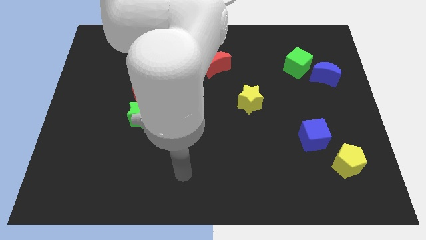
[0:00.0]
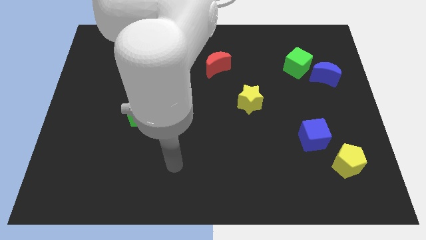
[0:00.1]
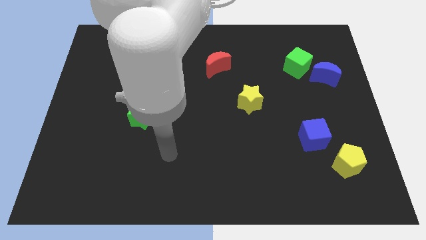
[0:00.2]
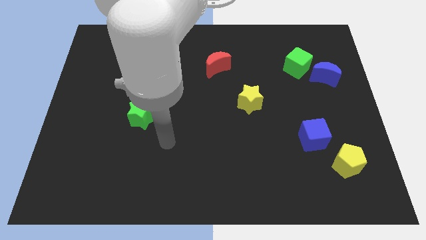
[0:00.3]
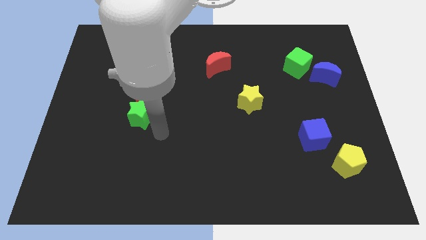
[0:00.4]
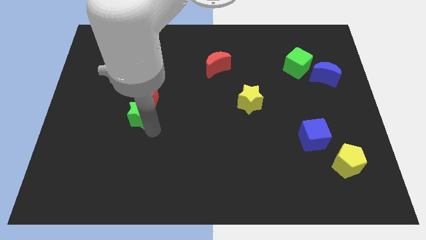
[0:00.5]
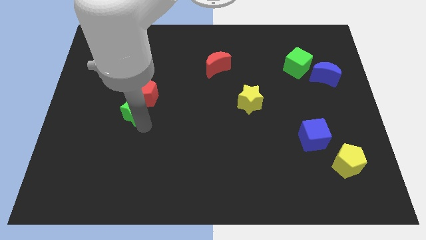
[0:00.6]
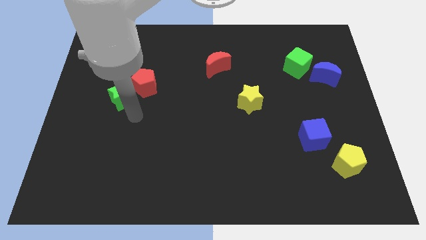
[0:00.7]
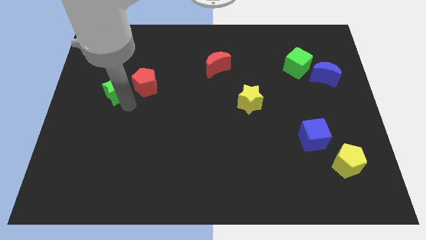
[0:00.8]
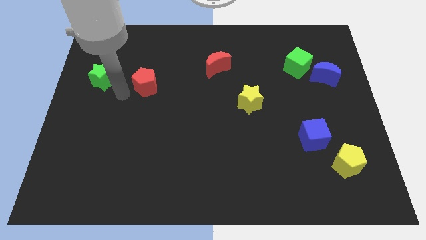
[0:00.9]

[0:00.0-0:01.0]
move the red pentagon away from the green star

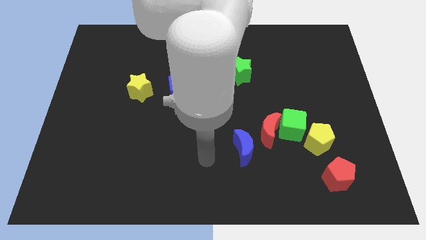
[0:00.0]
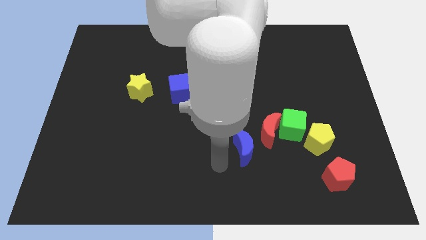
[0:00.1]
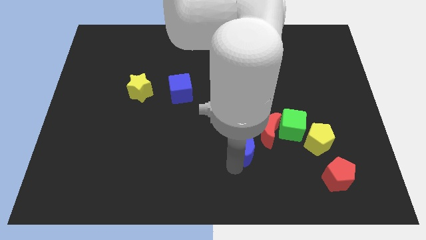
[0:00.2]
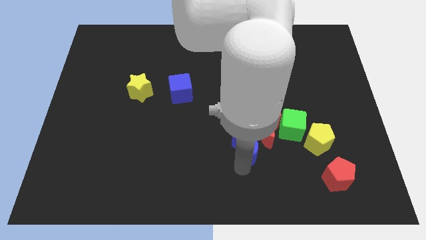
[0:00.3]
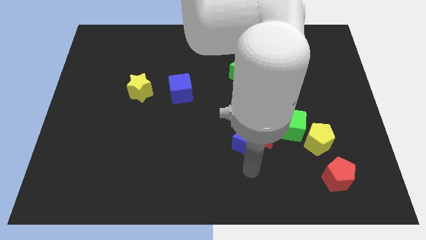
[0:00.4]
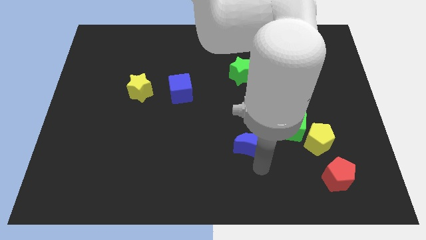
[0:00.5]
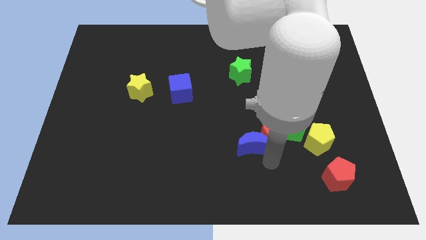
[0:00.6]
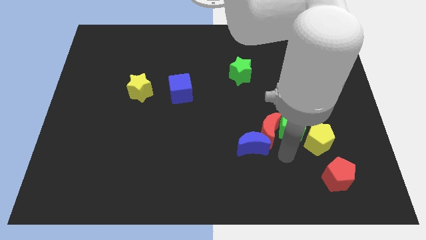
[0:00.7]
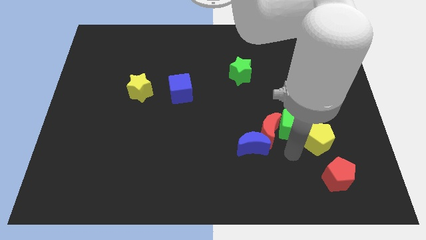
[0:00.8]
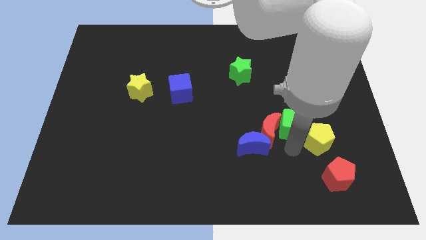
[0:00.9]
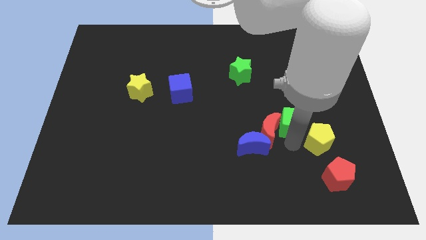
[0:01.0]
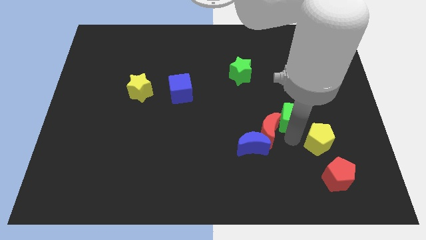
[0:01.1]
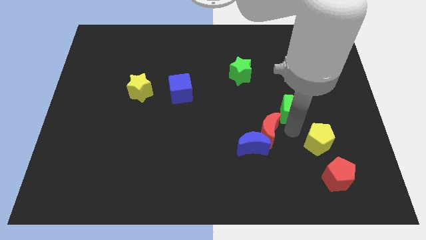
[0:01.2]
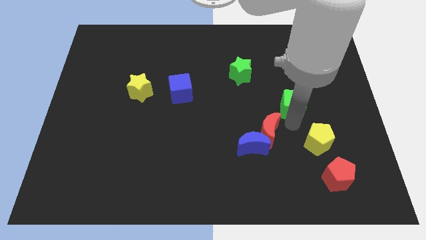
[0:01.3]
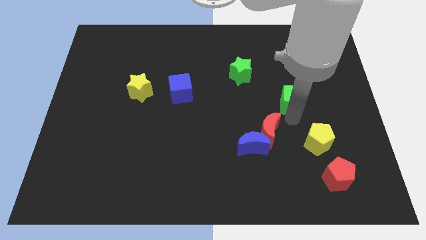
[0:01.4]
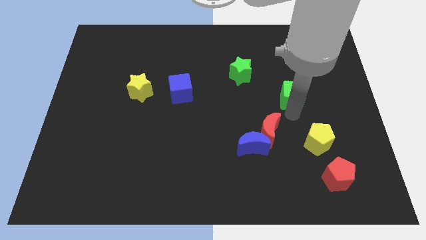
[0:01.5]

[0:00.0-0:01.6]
pull the green cube apart from the red moon and yellow pentagon

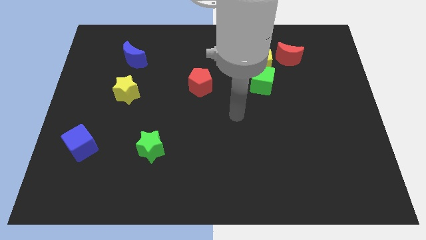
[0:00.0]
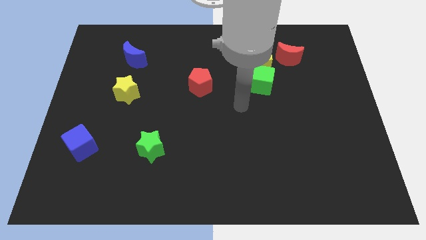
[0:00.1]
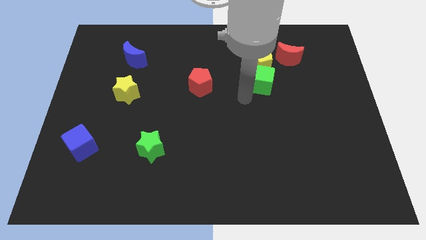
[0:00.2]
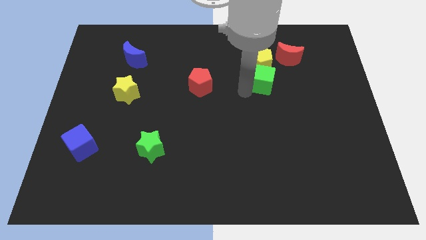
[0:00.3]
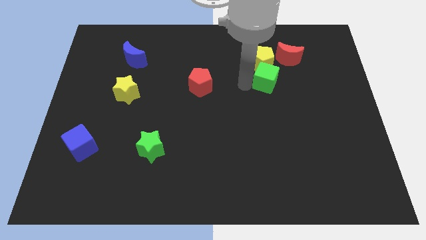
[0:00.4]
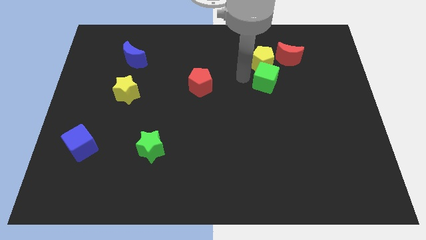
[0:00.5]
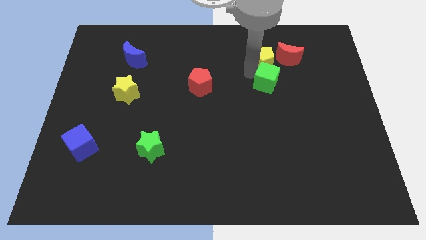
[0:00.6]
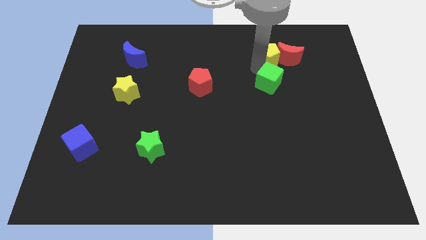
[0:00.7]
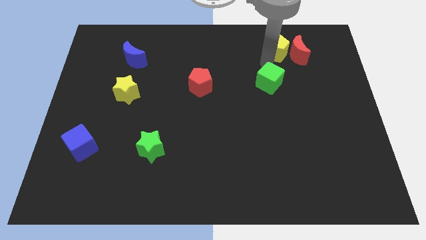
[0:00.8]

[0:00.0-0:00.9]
pull the green cube apart from the yellow pentagon

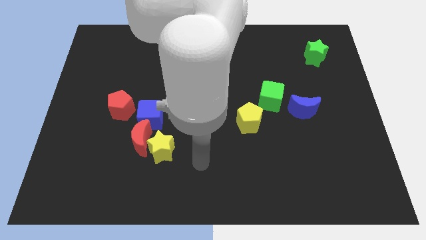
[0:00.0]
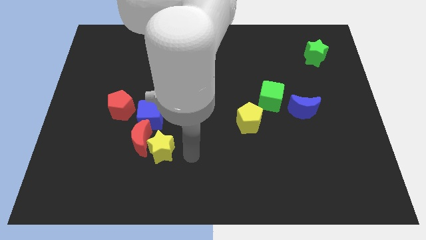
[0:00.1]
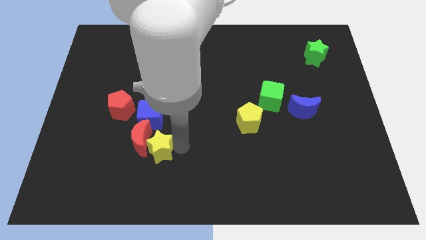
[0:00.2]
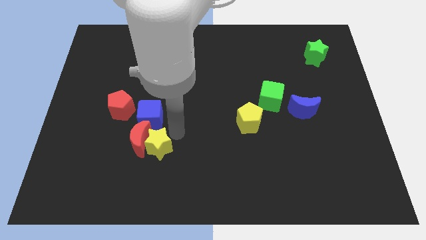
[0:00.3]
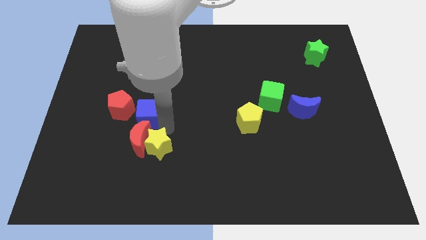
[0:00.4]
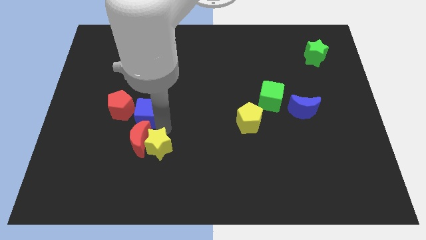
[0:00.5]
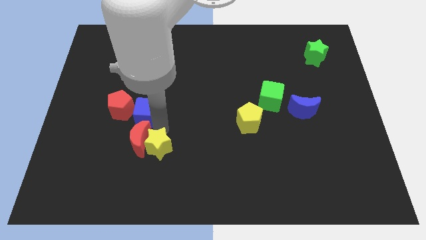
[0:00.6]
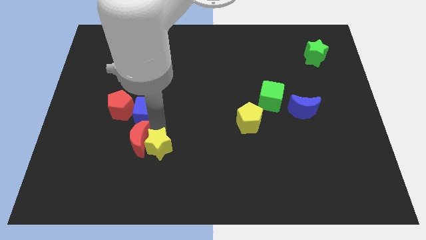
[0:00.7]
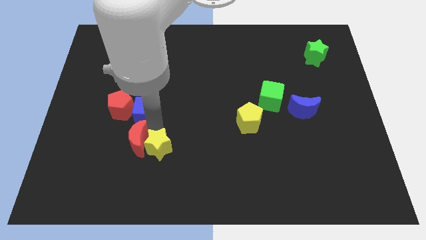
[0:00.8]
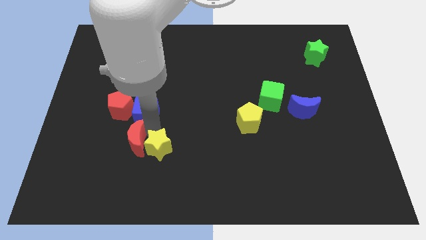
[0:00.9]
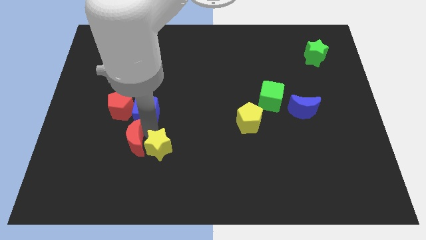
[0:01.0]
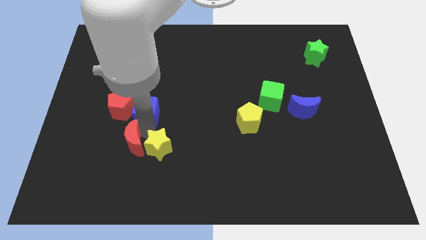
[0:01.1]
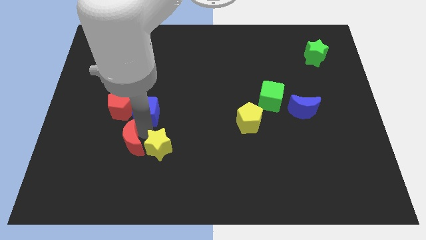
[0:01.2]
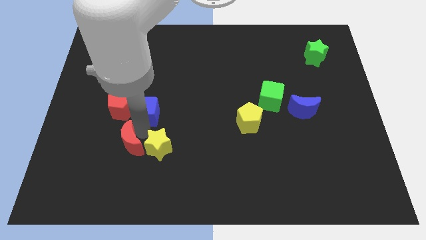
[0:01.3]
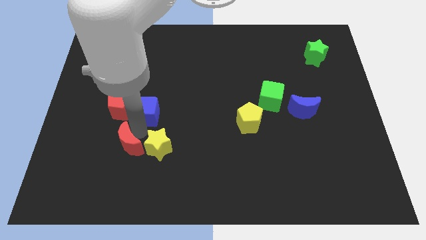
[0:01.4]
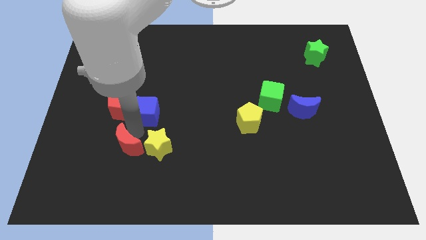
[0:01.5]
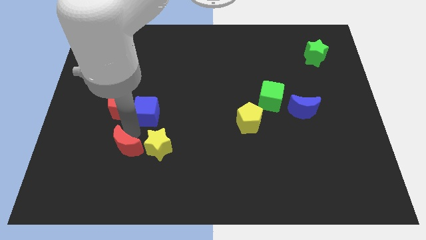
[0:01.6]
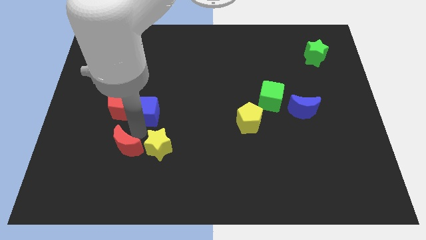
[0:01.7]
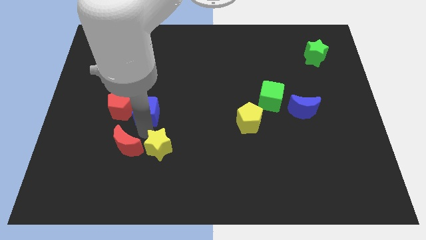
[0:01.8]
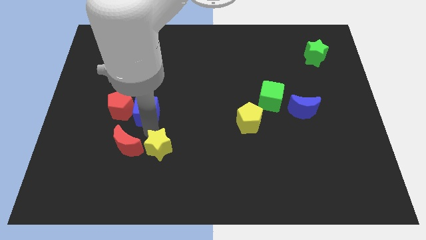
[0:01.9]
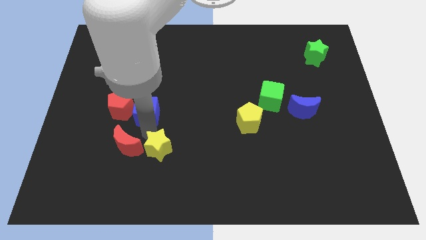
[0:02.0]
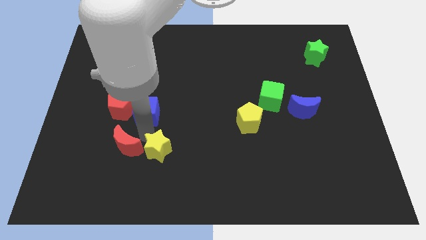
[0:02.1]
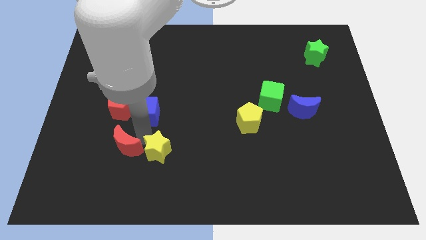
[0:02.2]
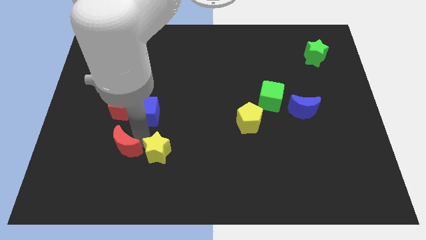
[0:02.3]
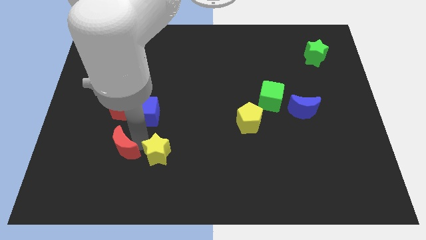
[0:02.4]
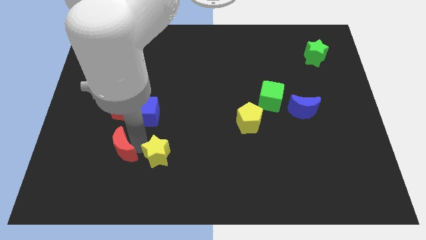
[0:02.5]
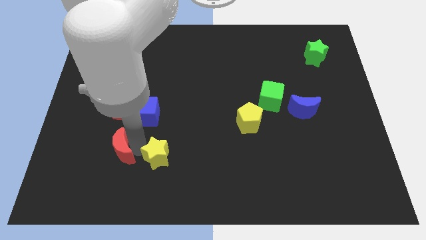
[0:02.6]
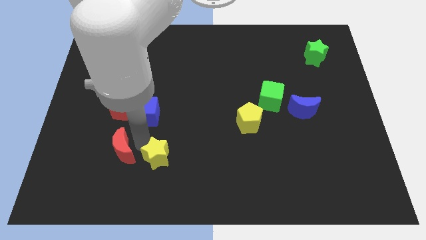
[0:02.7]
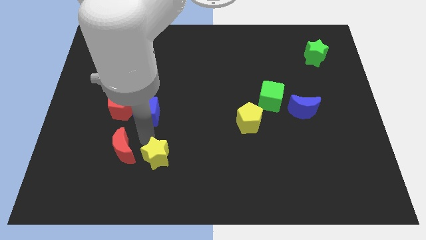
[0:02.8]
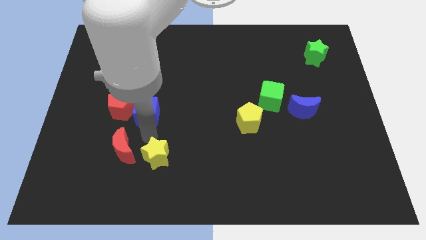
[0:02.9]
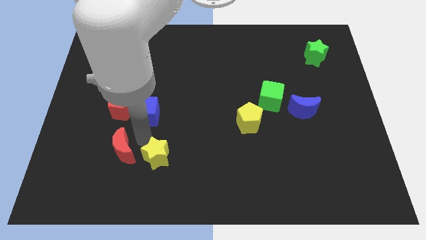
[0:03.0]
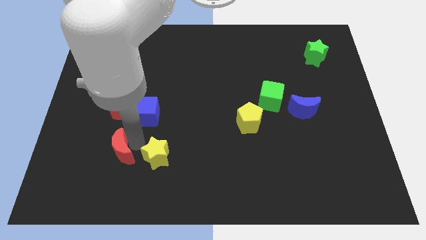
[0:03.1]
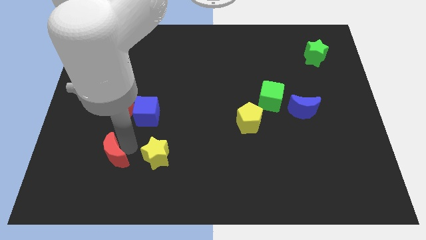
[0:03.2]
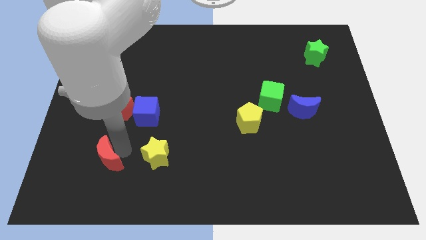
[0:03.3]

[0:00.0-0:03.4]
pull the red moon apart from the yellow star and blue cube

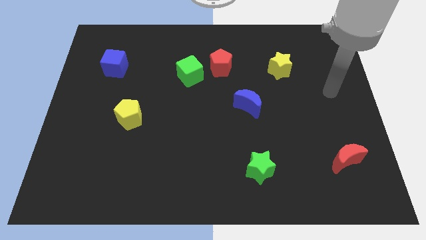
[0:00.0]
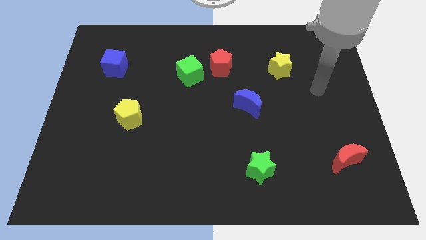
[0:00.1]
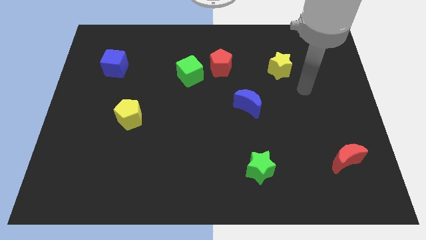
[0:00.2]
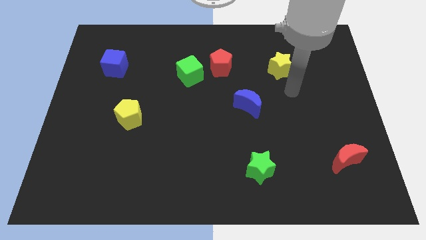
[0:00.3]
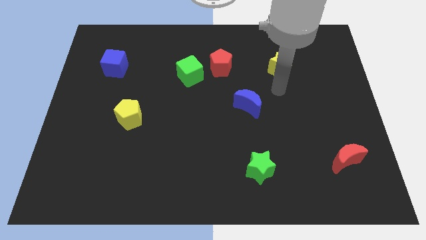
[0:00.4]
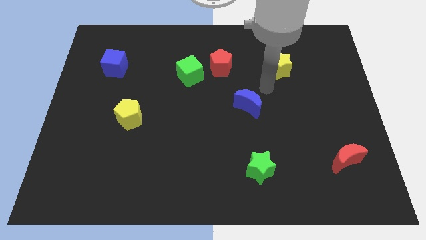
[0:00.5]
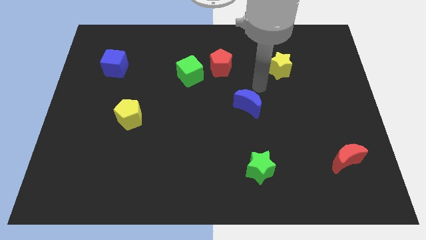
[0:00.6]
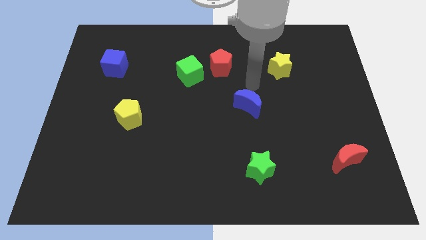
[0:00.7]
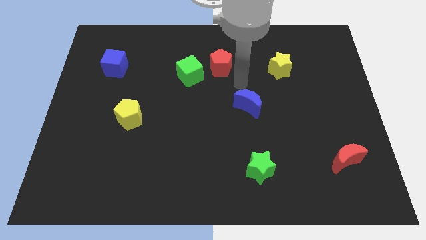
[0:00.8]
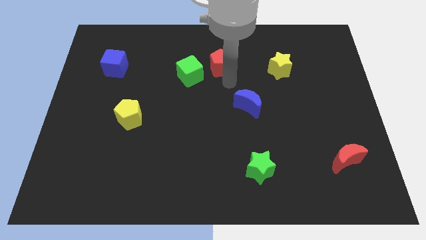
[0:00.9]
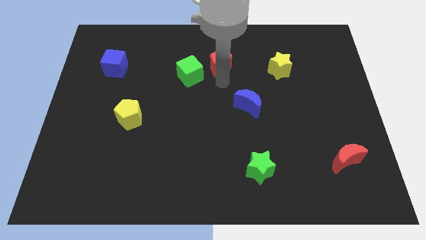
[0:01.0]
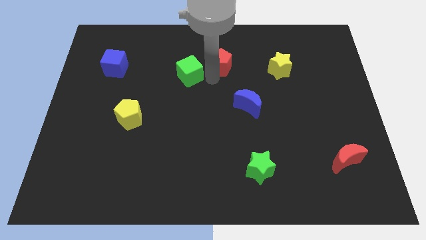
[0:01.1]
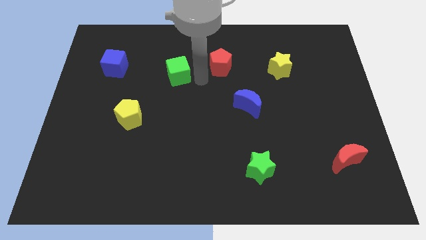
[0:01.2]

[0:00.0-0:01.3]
pull the red pentagon apart from the green cube

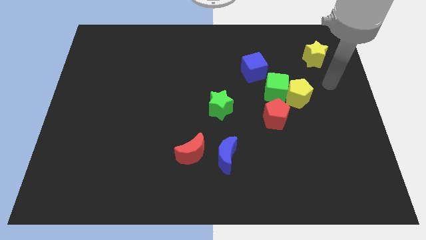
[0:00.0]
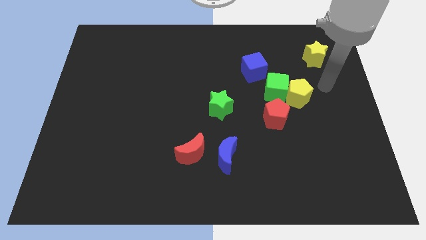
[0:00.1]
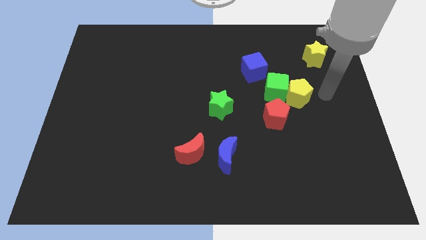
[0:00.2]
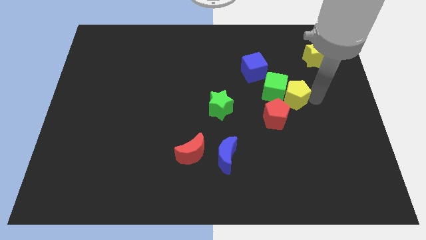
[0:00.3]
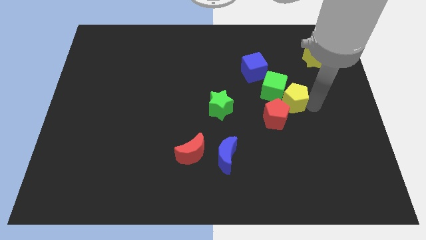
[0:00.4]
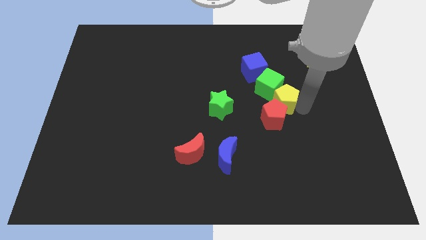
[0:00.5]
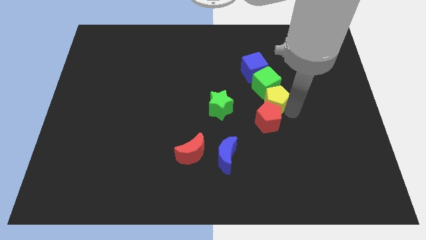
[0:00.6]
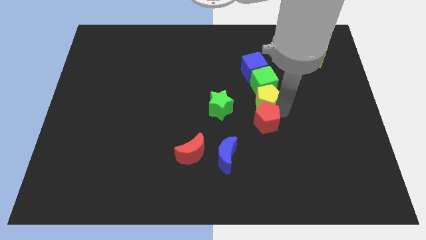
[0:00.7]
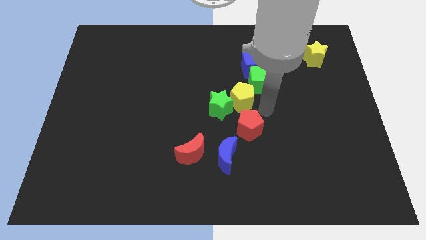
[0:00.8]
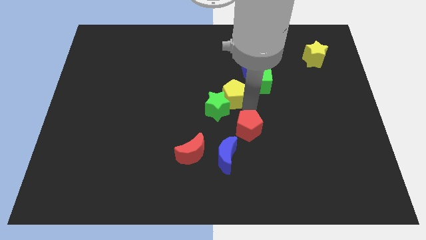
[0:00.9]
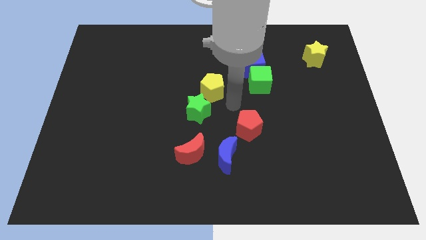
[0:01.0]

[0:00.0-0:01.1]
pull the yellow pentagon apart from the green cube and red pentagon

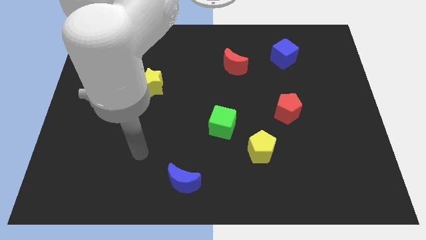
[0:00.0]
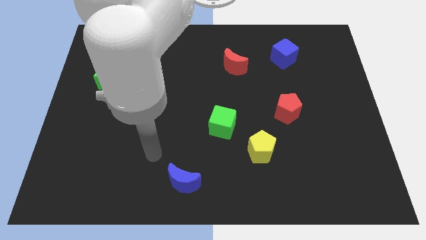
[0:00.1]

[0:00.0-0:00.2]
move the green cube away from the yellow pentagon
